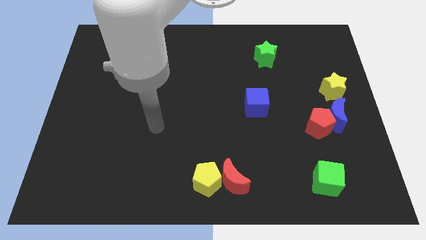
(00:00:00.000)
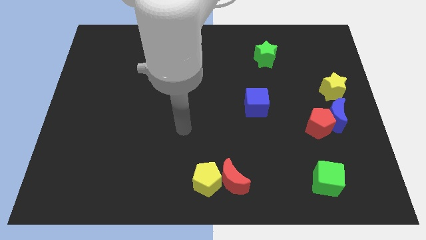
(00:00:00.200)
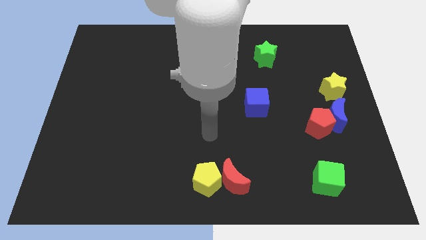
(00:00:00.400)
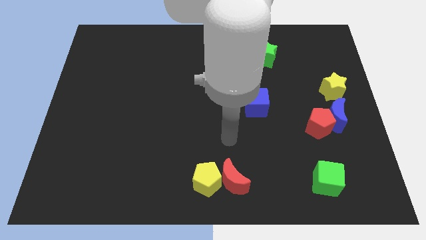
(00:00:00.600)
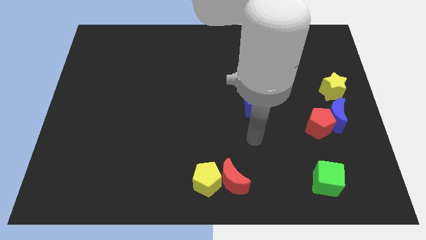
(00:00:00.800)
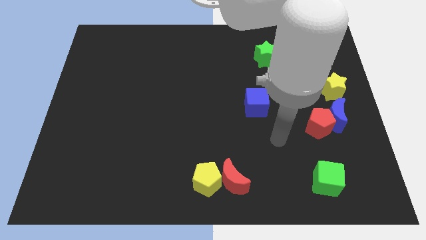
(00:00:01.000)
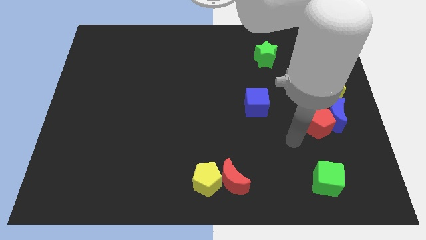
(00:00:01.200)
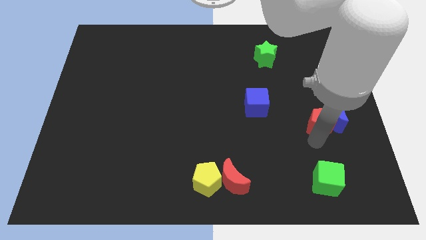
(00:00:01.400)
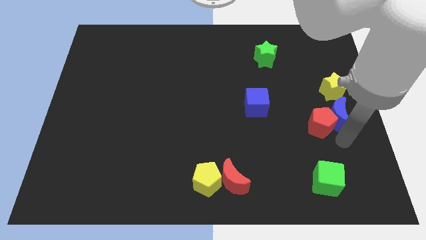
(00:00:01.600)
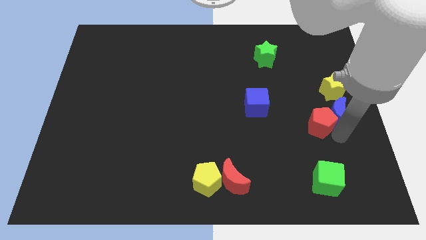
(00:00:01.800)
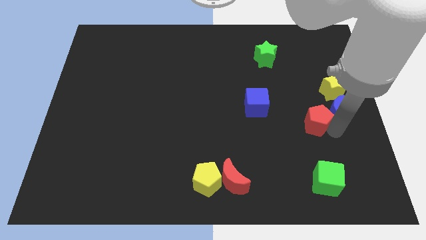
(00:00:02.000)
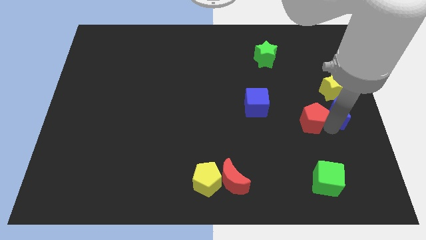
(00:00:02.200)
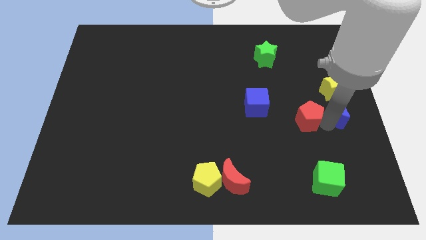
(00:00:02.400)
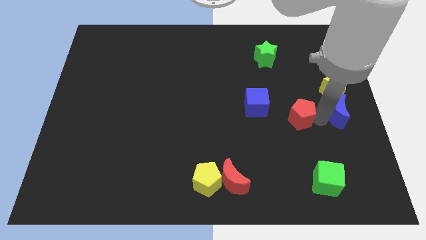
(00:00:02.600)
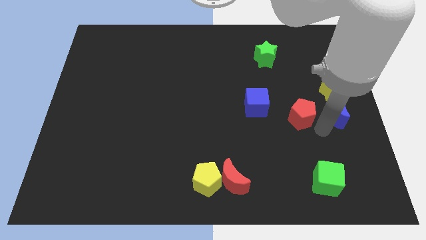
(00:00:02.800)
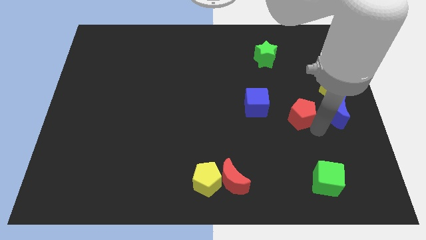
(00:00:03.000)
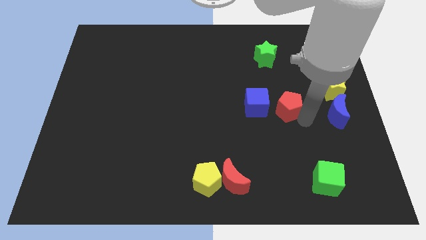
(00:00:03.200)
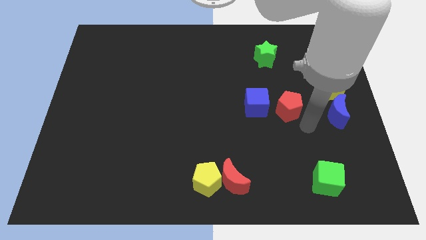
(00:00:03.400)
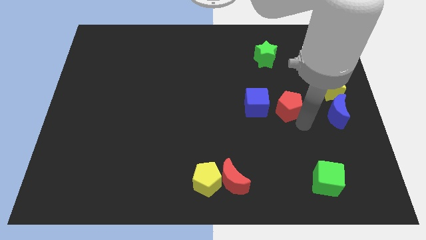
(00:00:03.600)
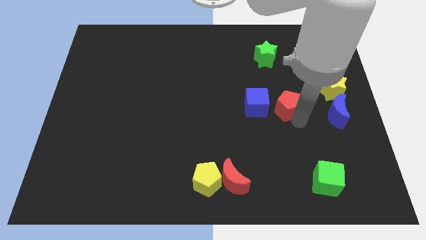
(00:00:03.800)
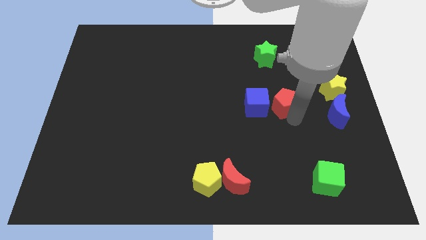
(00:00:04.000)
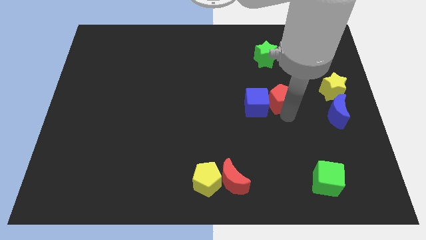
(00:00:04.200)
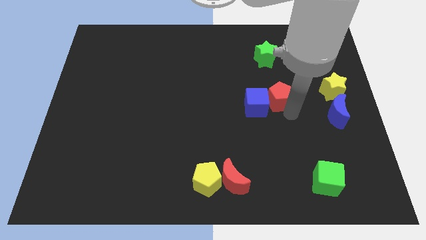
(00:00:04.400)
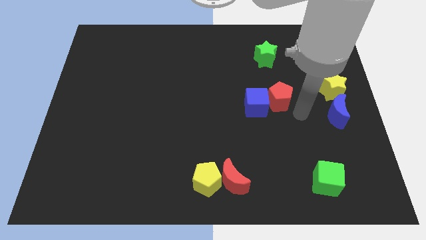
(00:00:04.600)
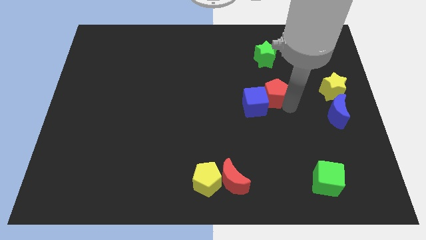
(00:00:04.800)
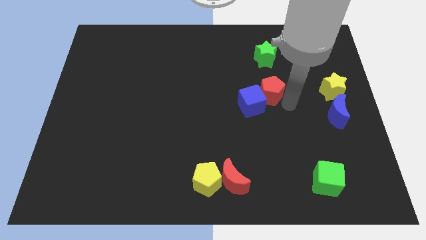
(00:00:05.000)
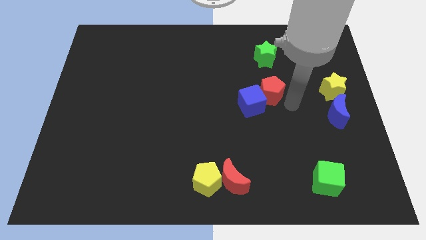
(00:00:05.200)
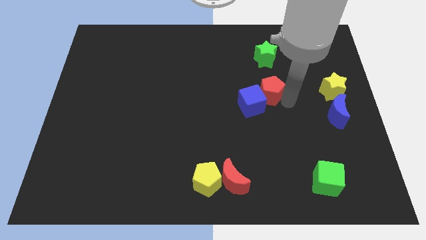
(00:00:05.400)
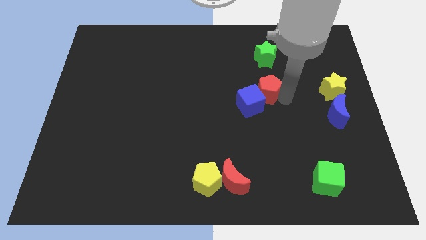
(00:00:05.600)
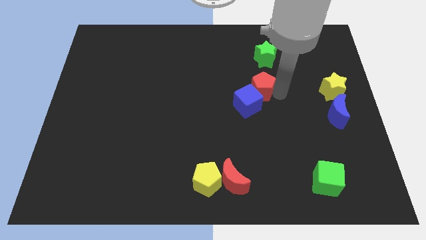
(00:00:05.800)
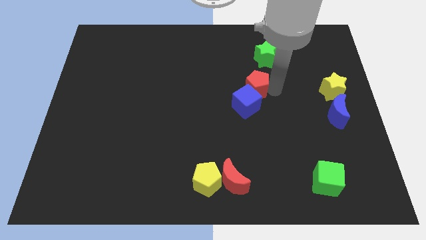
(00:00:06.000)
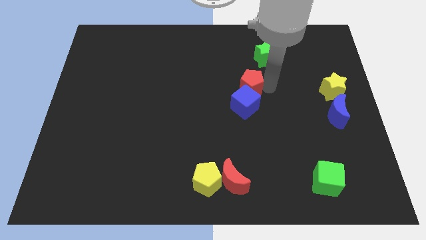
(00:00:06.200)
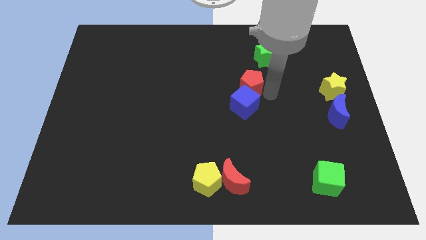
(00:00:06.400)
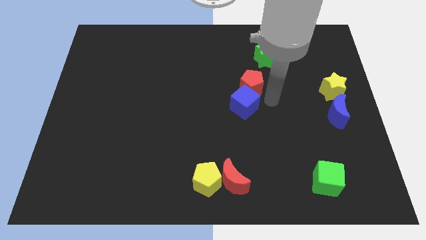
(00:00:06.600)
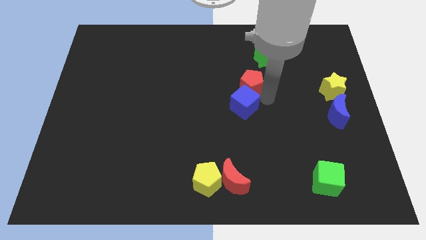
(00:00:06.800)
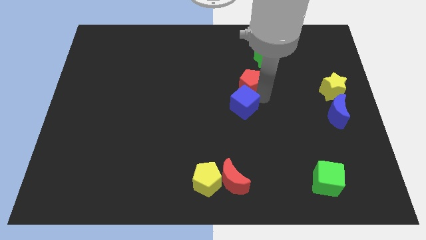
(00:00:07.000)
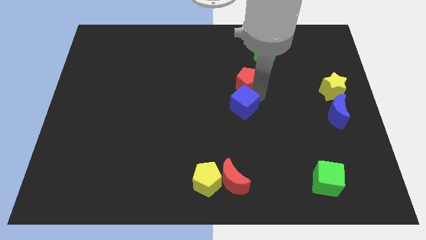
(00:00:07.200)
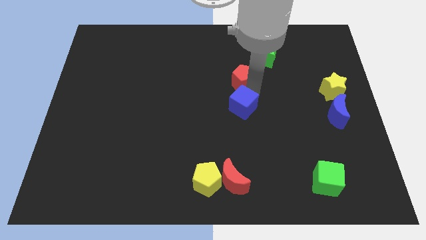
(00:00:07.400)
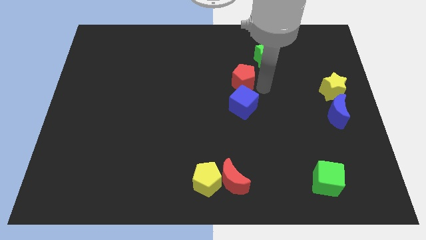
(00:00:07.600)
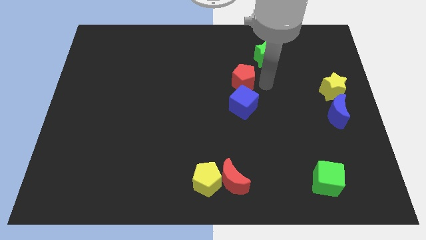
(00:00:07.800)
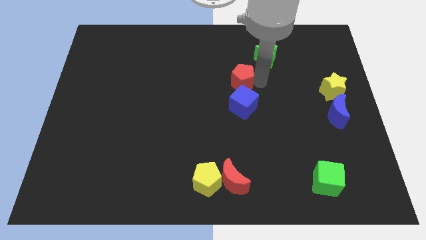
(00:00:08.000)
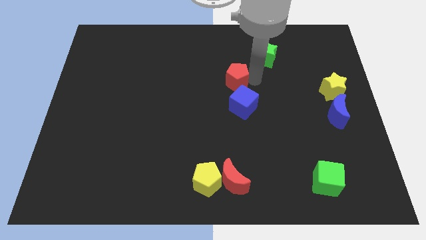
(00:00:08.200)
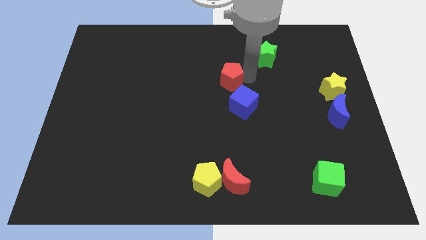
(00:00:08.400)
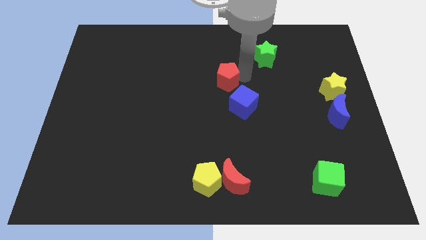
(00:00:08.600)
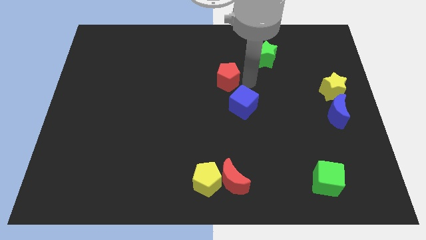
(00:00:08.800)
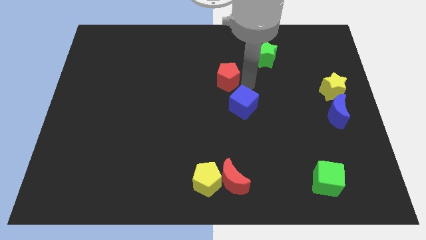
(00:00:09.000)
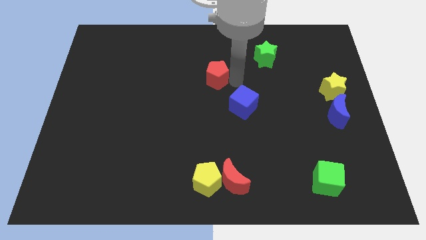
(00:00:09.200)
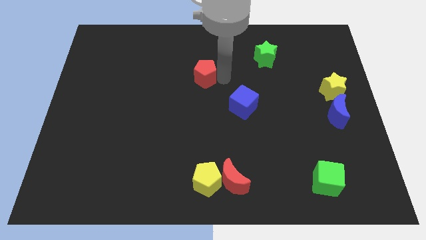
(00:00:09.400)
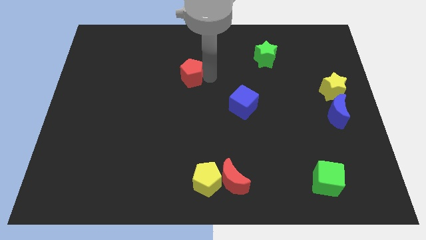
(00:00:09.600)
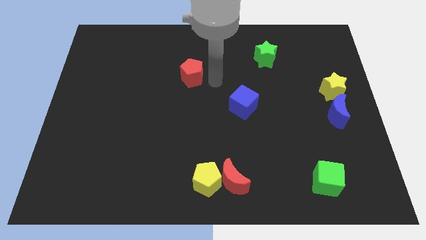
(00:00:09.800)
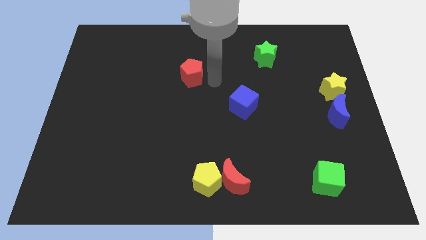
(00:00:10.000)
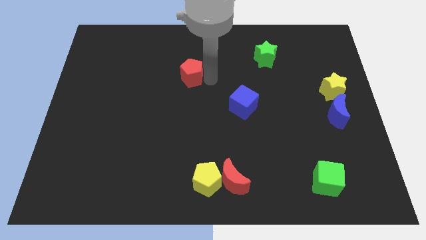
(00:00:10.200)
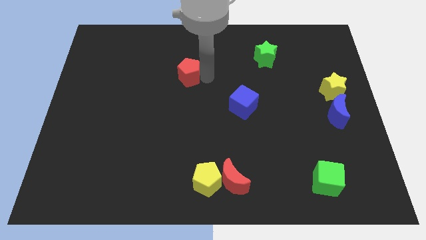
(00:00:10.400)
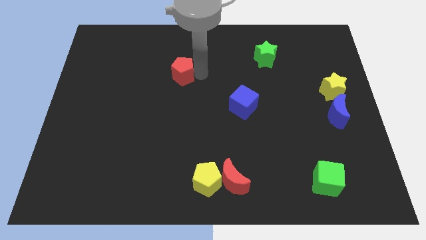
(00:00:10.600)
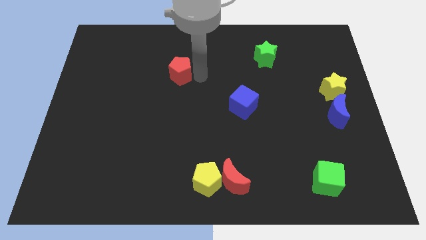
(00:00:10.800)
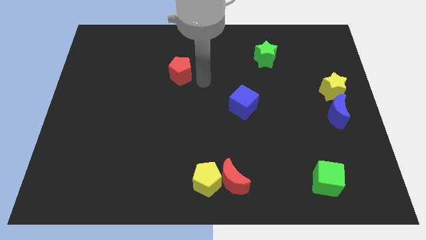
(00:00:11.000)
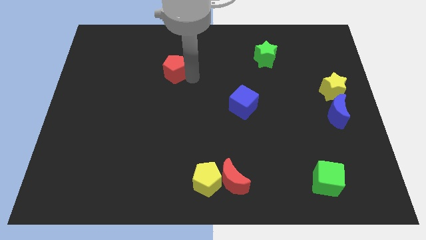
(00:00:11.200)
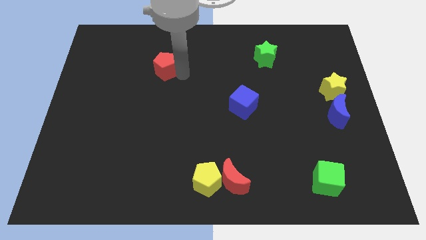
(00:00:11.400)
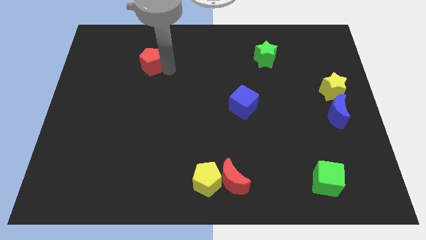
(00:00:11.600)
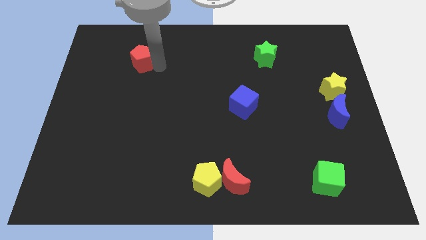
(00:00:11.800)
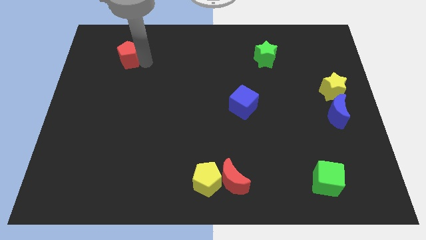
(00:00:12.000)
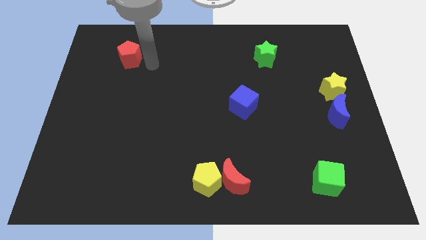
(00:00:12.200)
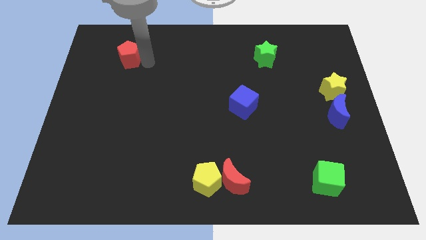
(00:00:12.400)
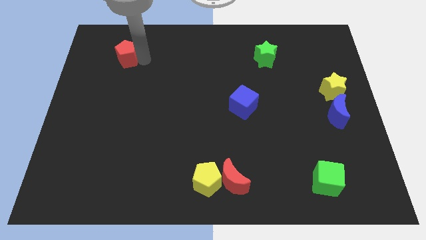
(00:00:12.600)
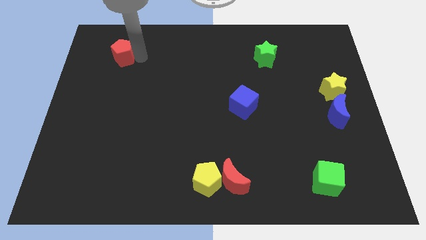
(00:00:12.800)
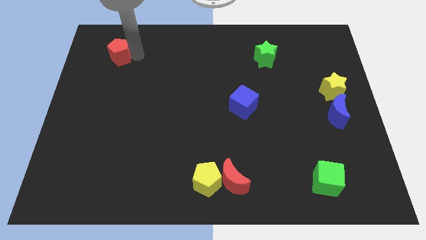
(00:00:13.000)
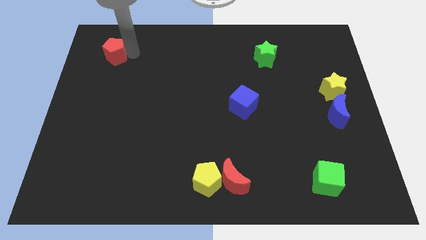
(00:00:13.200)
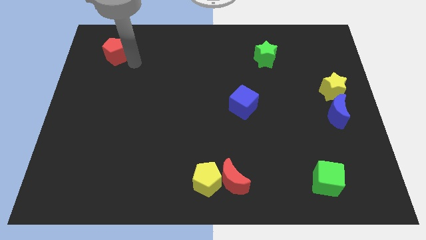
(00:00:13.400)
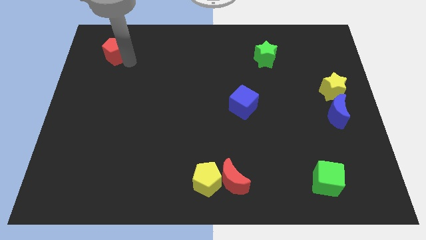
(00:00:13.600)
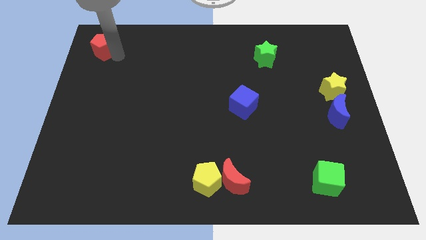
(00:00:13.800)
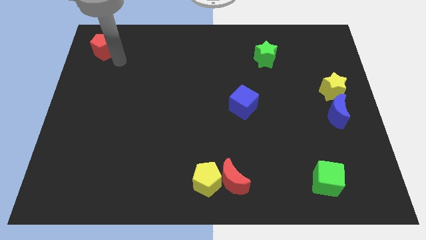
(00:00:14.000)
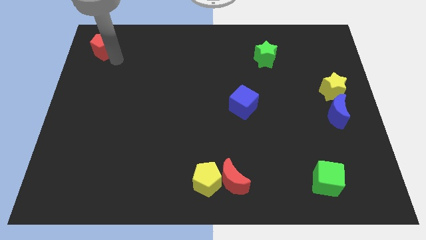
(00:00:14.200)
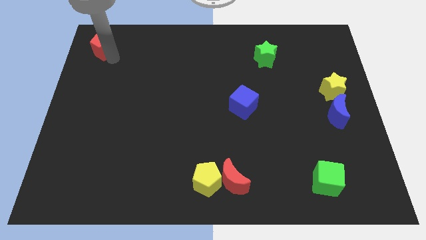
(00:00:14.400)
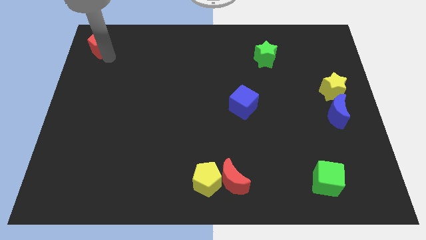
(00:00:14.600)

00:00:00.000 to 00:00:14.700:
slide the red pentagon to the top left corner
